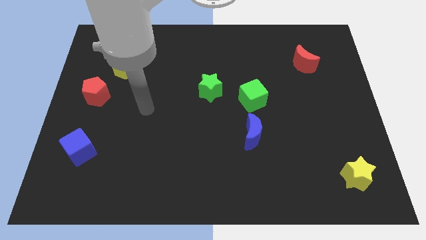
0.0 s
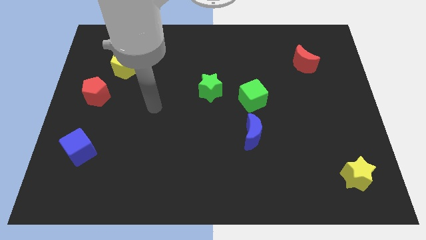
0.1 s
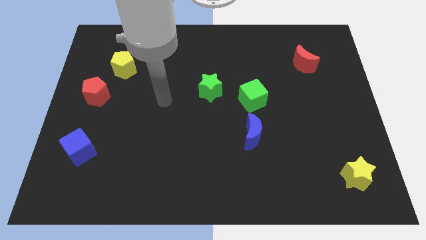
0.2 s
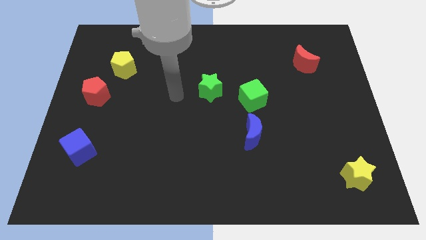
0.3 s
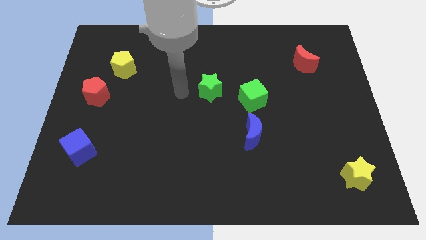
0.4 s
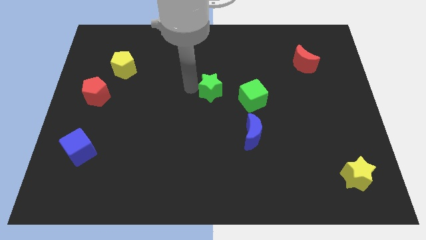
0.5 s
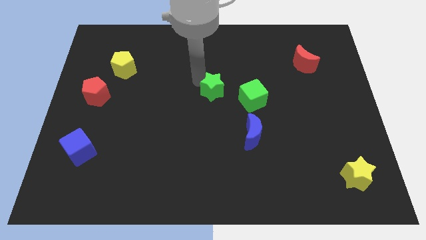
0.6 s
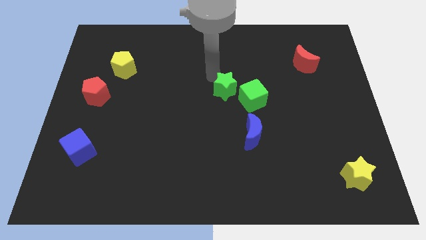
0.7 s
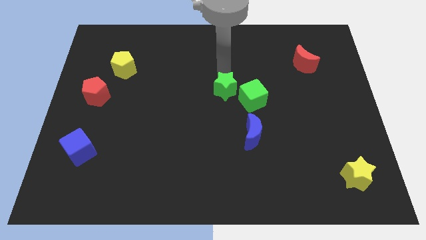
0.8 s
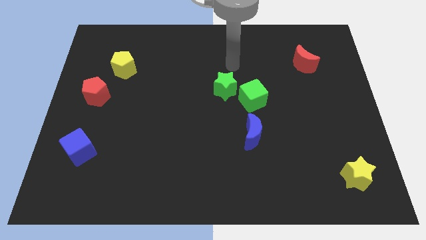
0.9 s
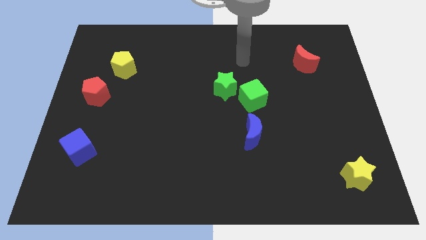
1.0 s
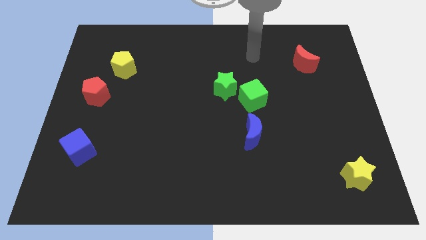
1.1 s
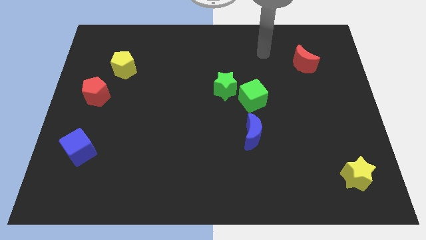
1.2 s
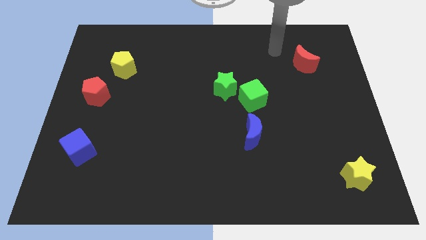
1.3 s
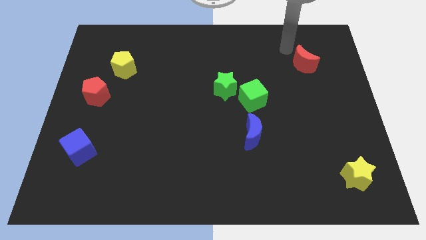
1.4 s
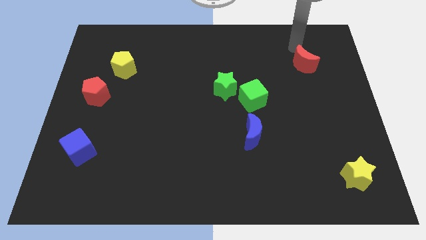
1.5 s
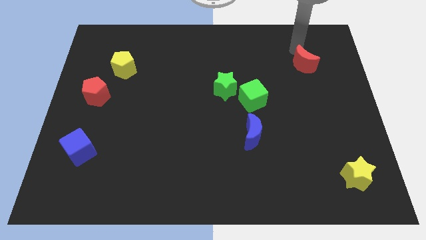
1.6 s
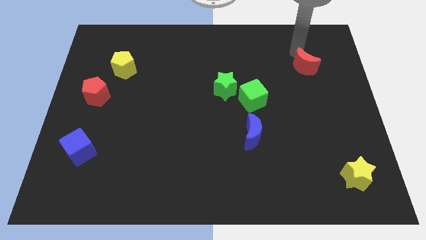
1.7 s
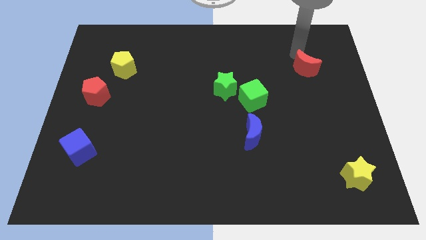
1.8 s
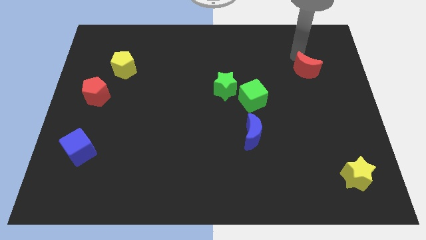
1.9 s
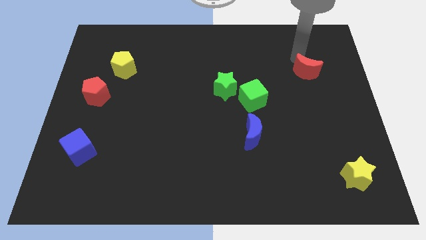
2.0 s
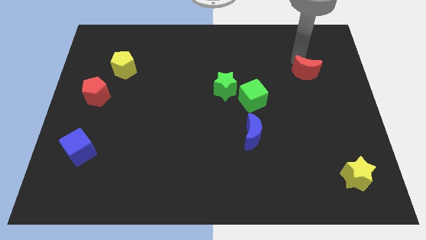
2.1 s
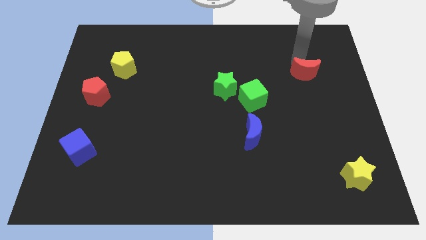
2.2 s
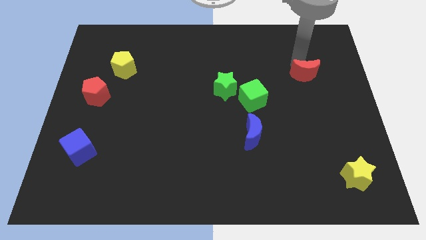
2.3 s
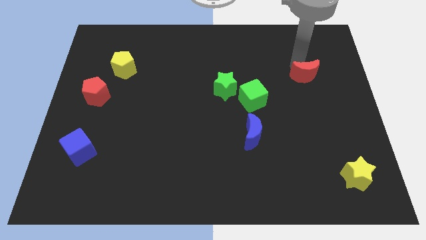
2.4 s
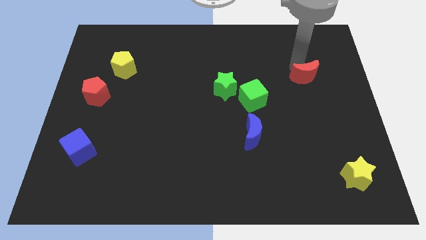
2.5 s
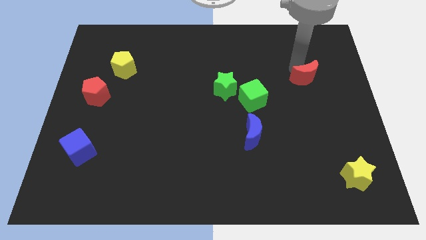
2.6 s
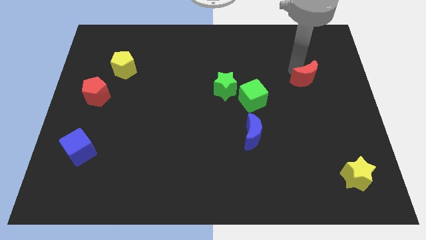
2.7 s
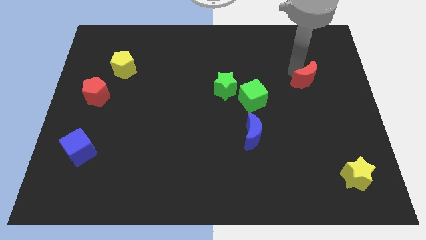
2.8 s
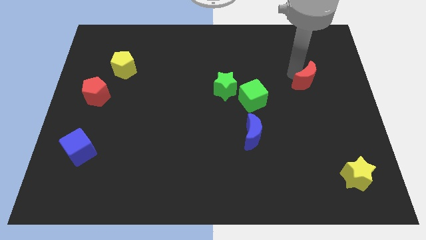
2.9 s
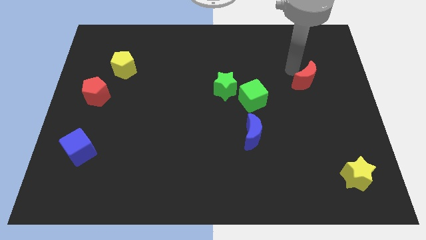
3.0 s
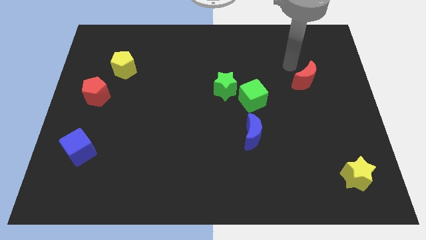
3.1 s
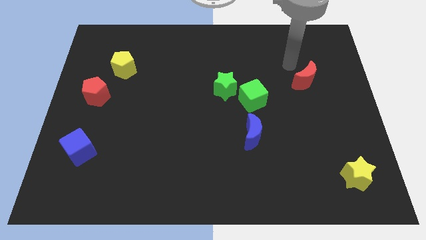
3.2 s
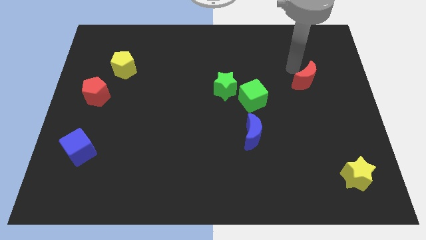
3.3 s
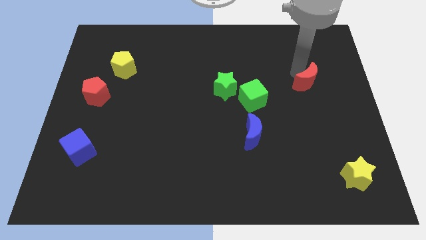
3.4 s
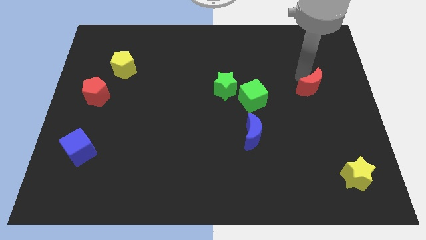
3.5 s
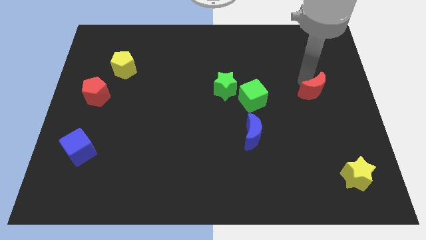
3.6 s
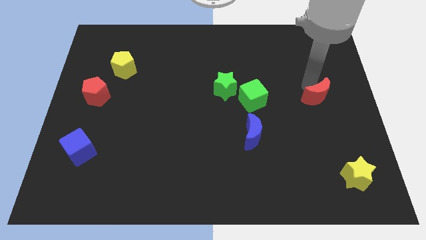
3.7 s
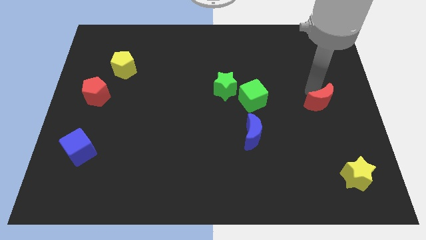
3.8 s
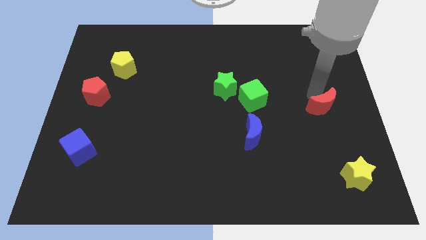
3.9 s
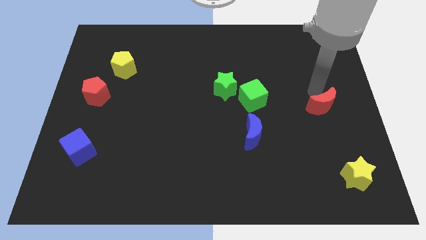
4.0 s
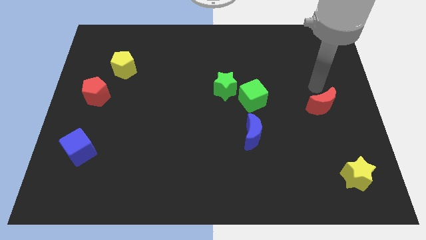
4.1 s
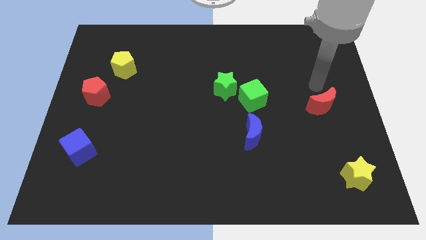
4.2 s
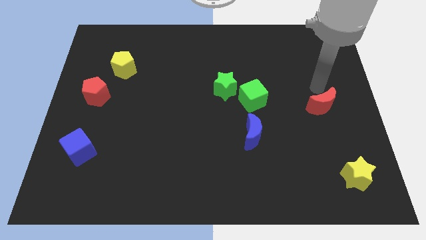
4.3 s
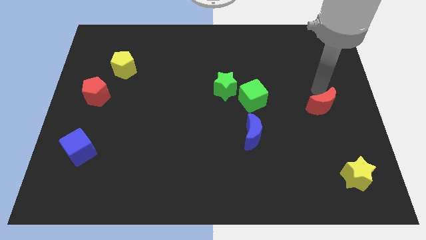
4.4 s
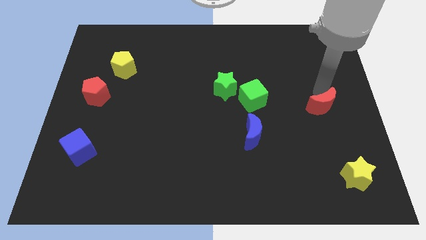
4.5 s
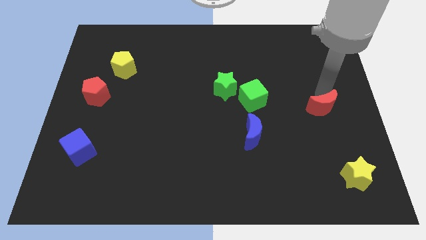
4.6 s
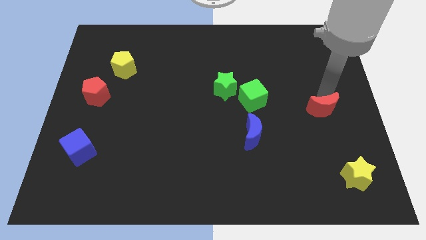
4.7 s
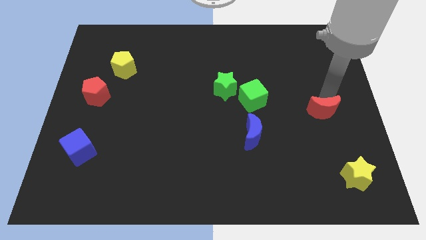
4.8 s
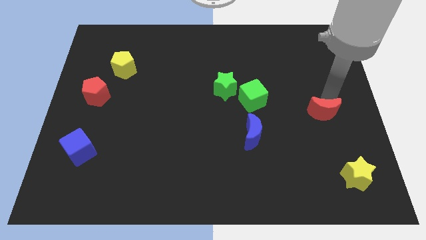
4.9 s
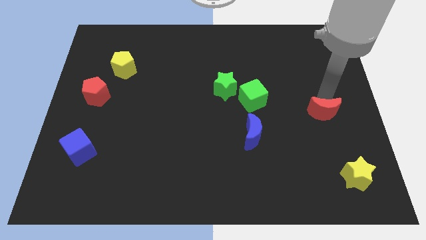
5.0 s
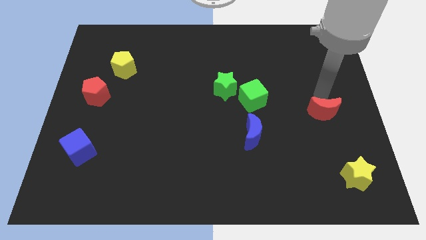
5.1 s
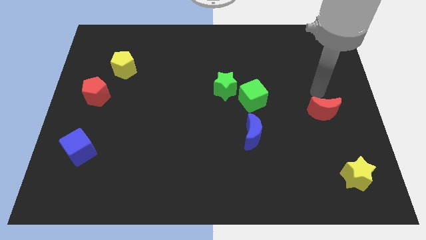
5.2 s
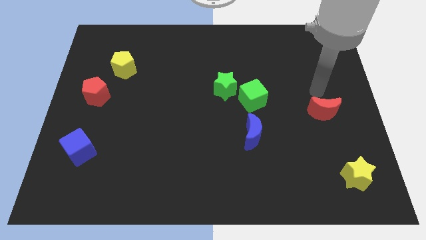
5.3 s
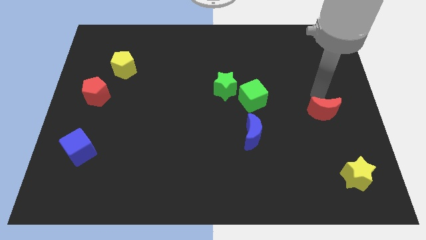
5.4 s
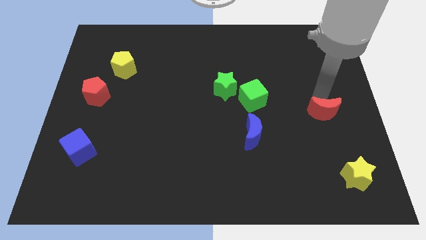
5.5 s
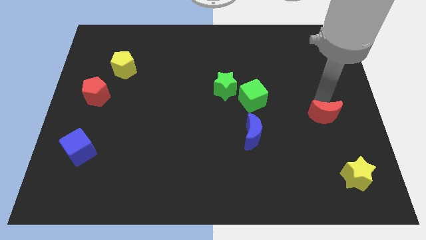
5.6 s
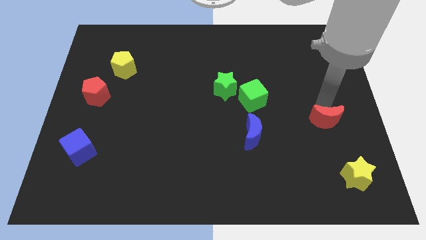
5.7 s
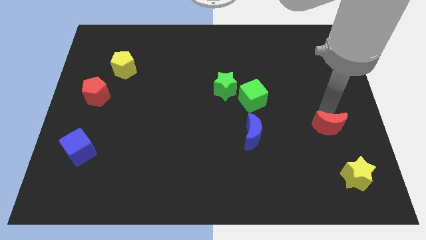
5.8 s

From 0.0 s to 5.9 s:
slide the red moon down

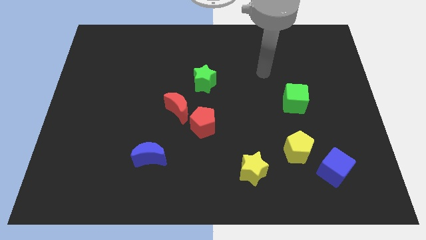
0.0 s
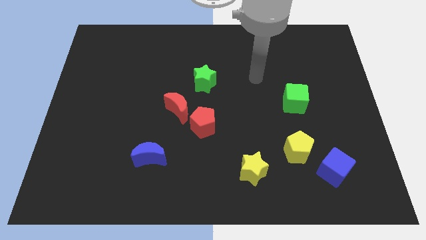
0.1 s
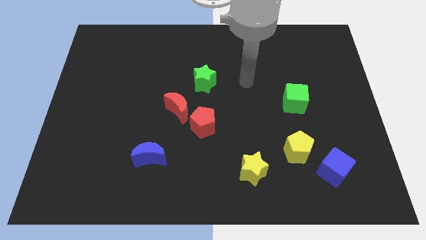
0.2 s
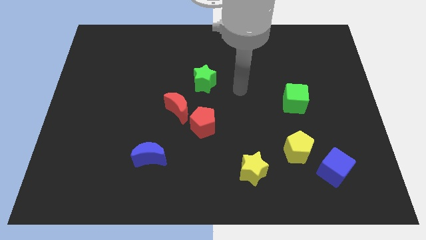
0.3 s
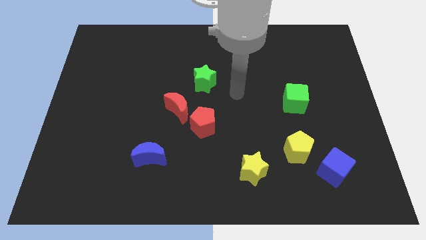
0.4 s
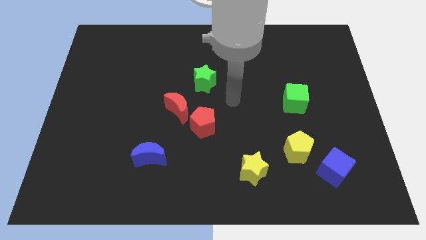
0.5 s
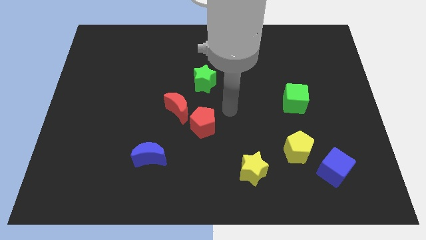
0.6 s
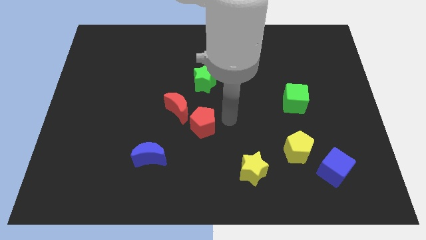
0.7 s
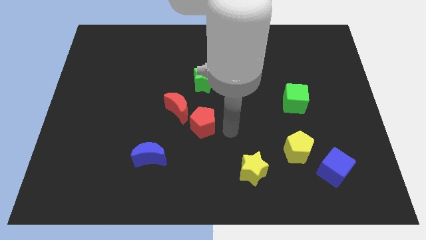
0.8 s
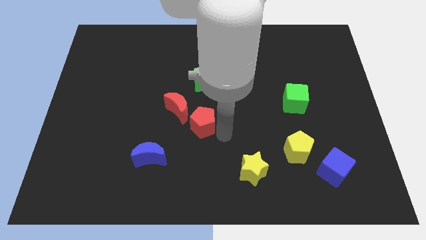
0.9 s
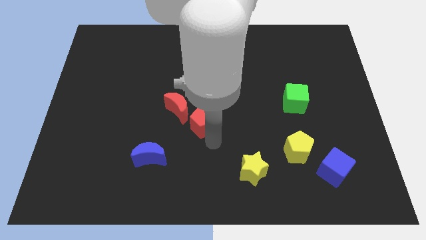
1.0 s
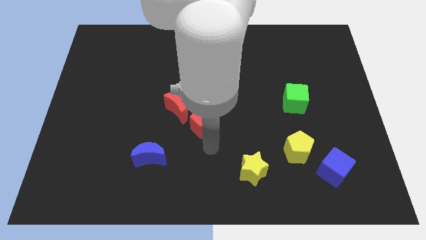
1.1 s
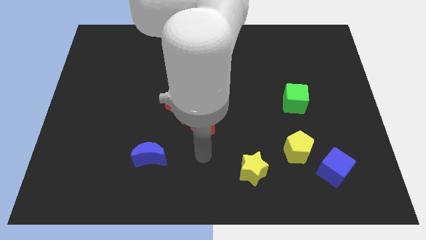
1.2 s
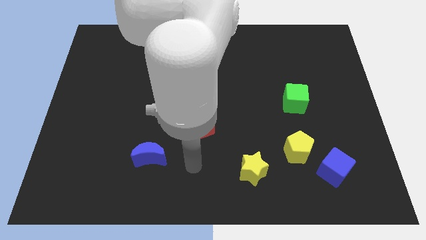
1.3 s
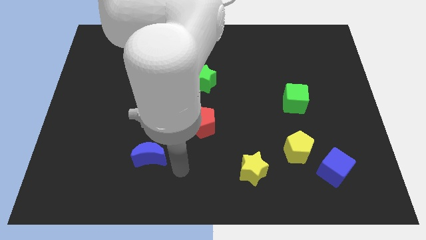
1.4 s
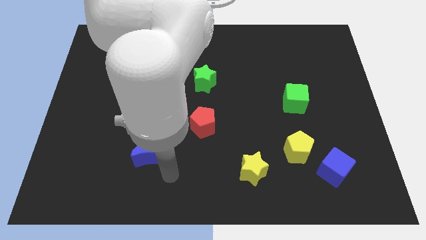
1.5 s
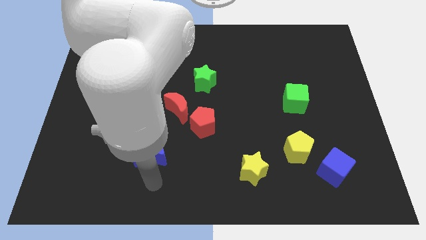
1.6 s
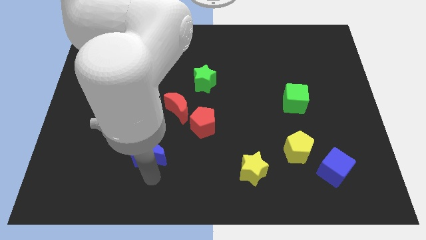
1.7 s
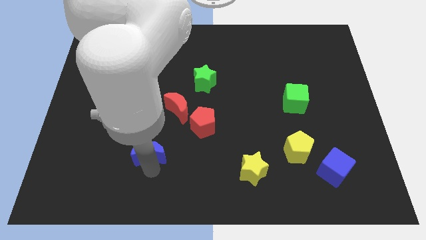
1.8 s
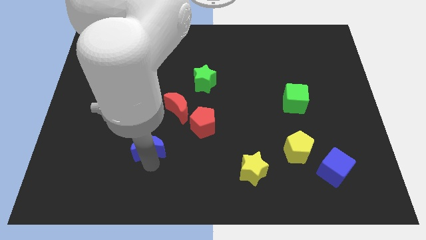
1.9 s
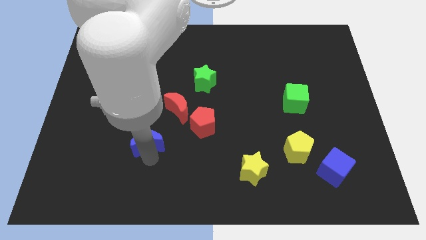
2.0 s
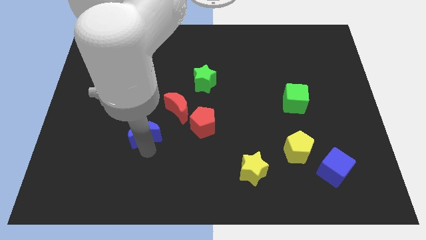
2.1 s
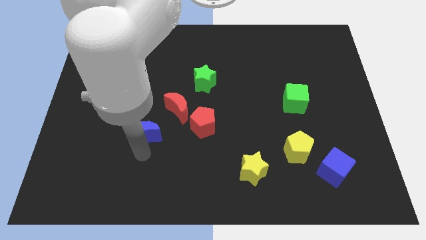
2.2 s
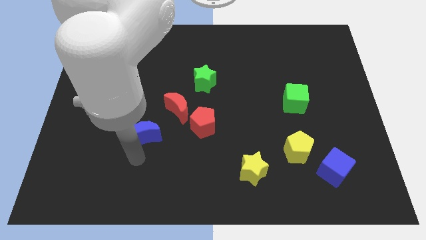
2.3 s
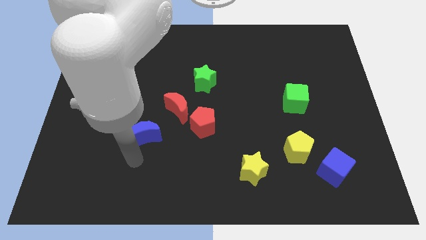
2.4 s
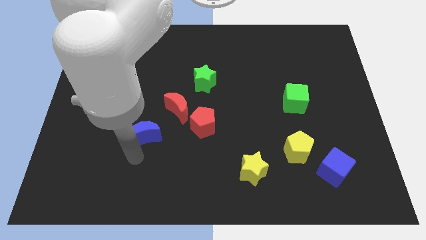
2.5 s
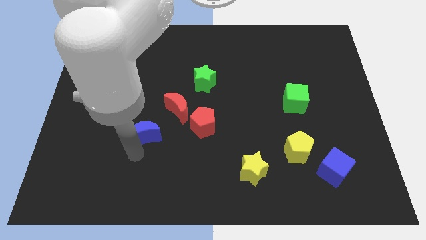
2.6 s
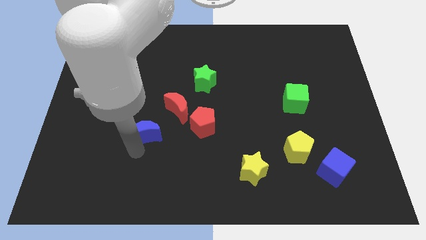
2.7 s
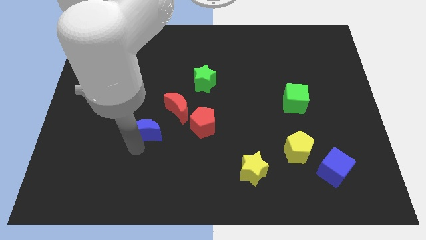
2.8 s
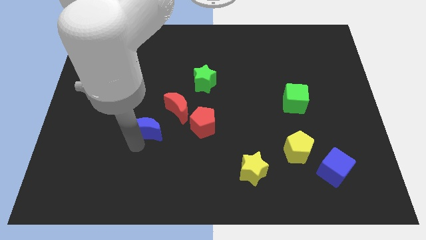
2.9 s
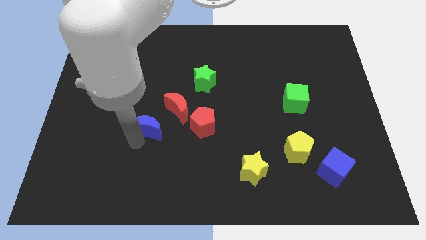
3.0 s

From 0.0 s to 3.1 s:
slightly move the blue moon upwards
